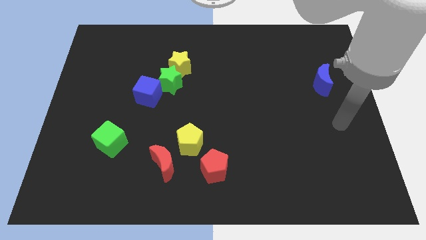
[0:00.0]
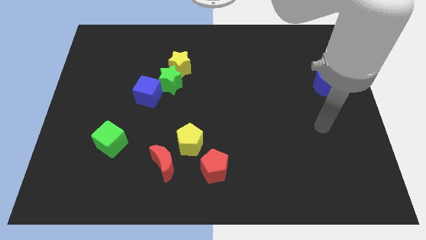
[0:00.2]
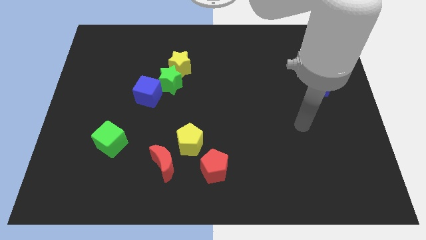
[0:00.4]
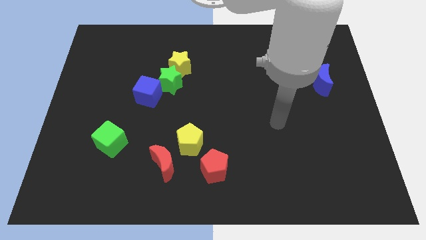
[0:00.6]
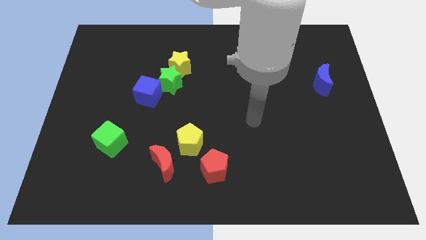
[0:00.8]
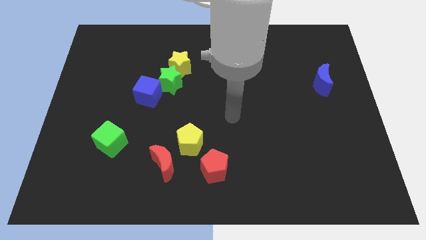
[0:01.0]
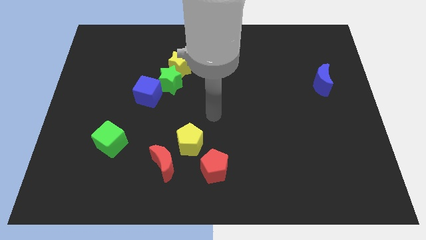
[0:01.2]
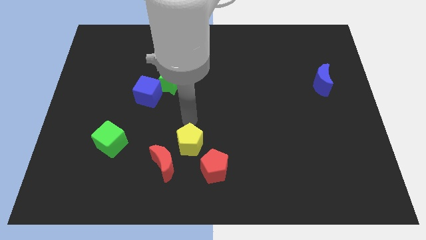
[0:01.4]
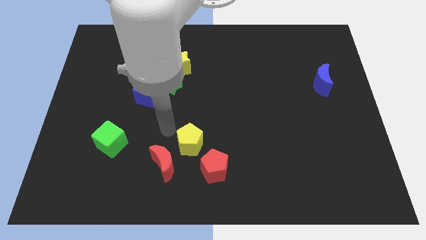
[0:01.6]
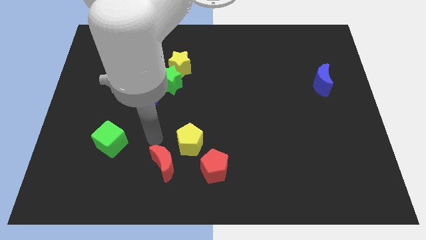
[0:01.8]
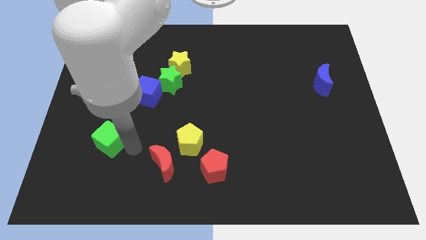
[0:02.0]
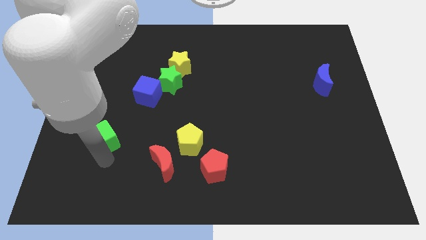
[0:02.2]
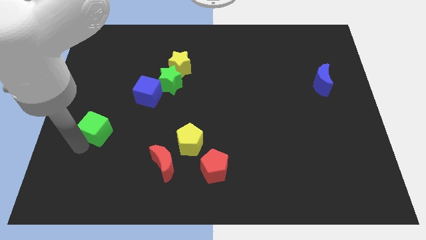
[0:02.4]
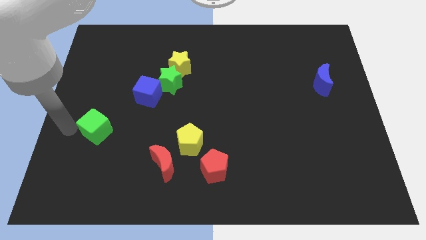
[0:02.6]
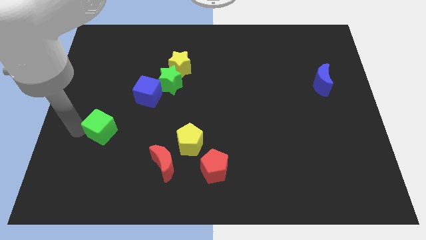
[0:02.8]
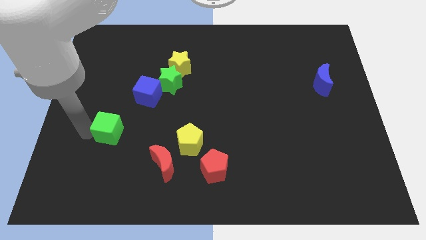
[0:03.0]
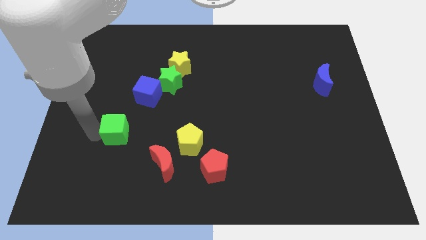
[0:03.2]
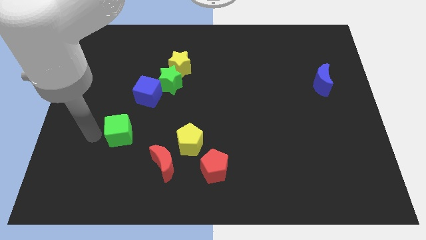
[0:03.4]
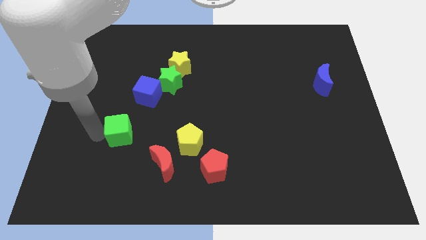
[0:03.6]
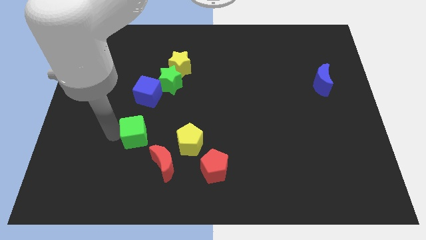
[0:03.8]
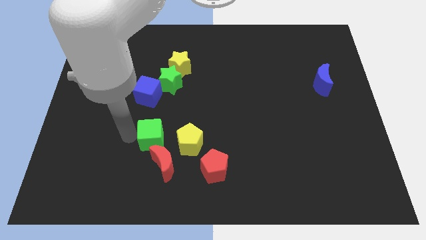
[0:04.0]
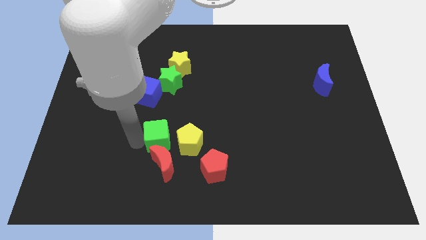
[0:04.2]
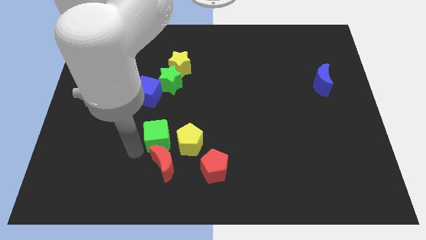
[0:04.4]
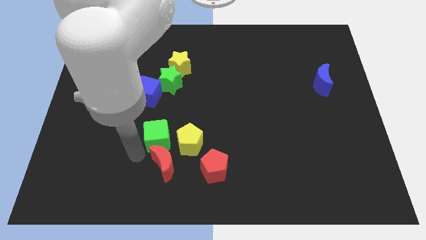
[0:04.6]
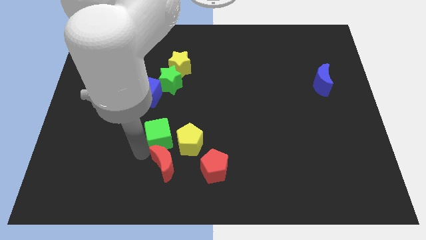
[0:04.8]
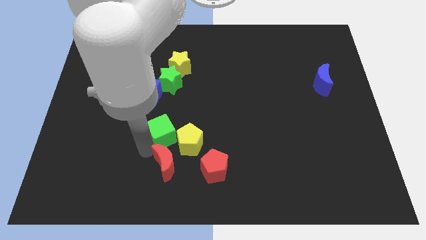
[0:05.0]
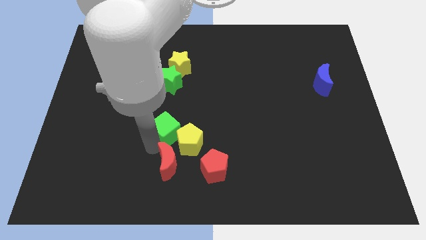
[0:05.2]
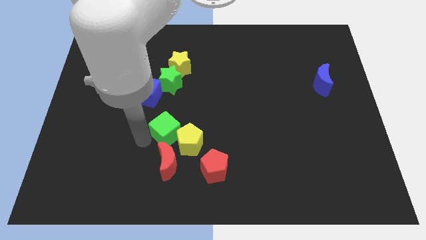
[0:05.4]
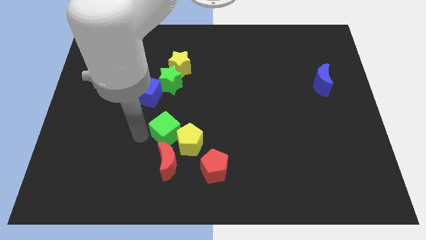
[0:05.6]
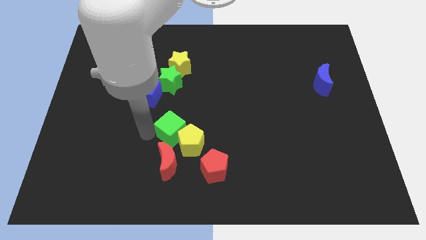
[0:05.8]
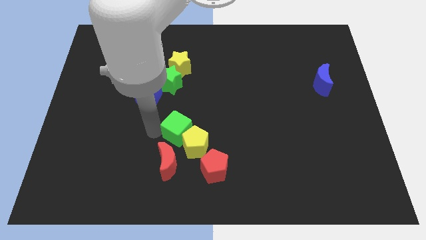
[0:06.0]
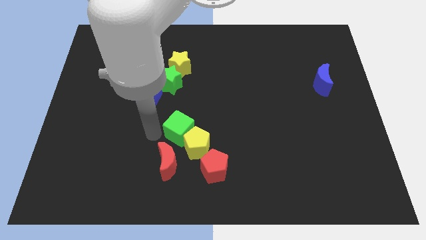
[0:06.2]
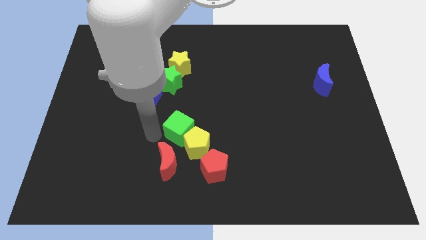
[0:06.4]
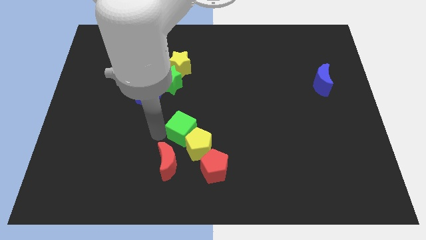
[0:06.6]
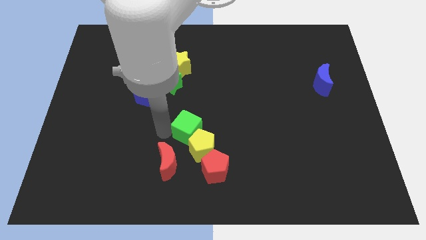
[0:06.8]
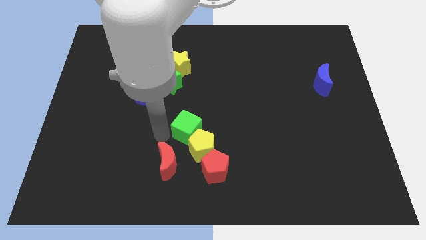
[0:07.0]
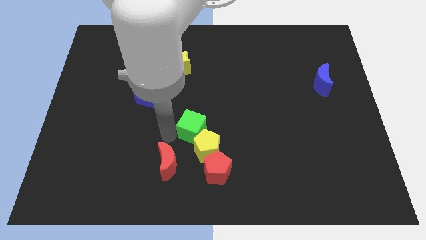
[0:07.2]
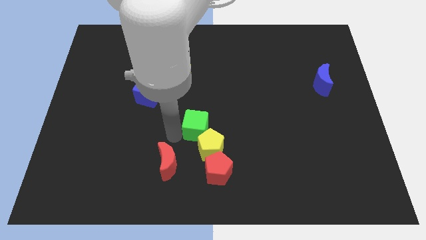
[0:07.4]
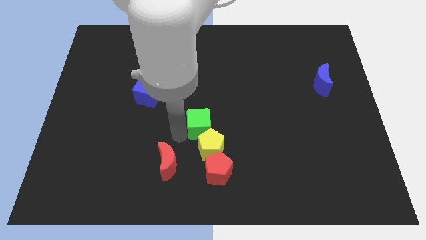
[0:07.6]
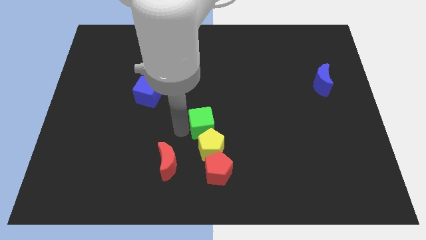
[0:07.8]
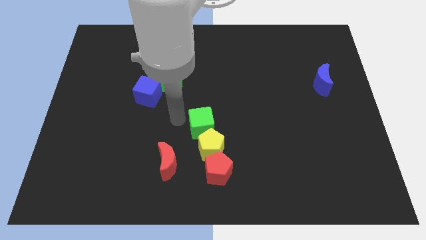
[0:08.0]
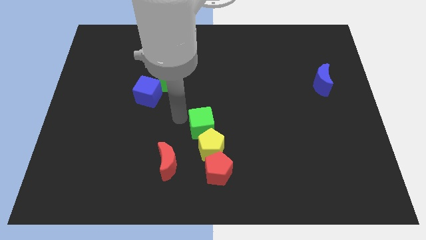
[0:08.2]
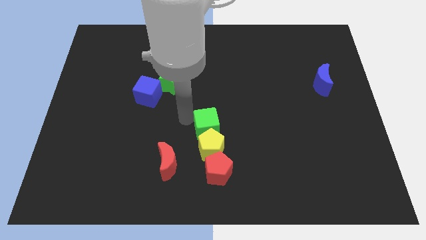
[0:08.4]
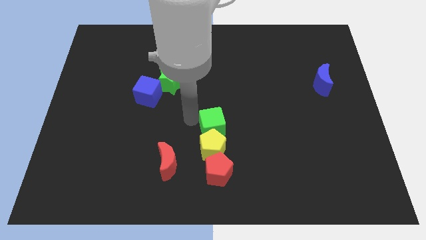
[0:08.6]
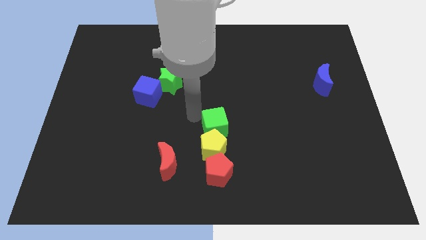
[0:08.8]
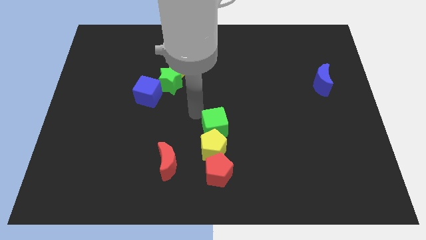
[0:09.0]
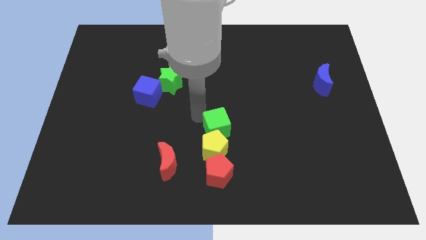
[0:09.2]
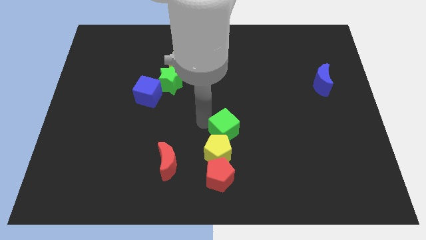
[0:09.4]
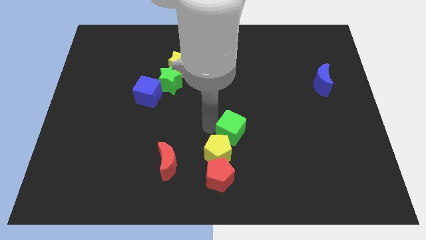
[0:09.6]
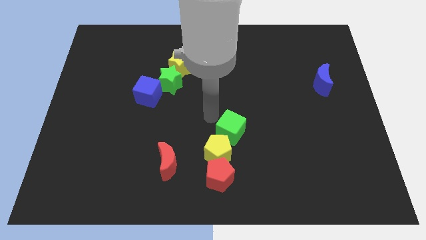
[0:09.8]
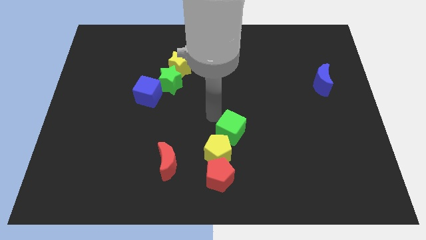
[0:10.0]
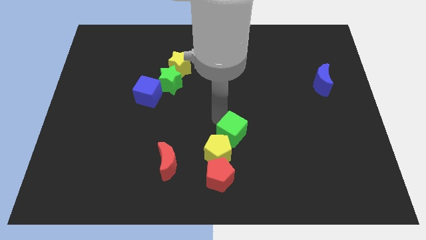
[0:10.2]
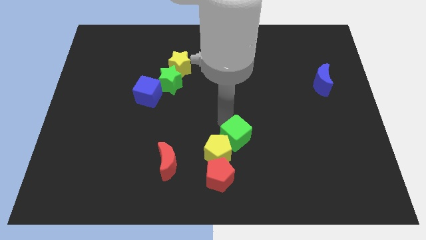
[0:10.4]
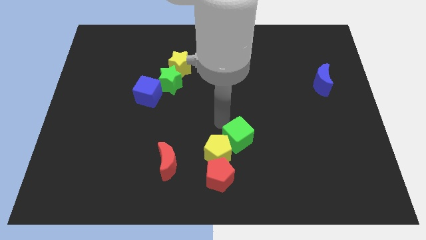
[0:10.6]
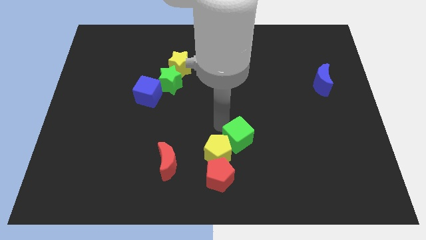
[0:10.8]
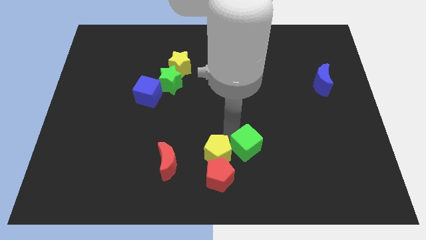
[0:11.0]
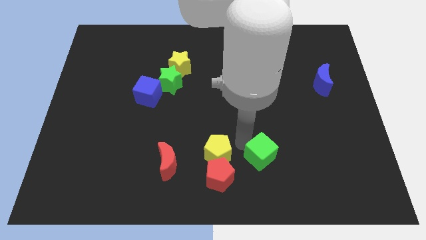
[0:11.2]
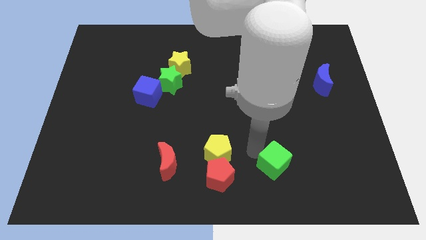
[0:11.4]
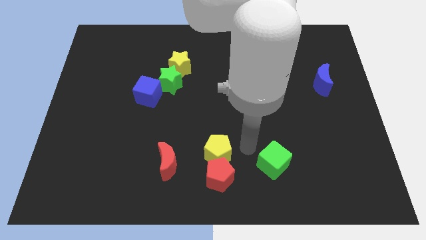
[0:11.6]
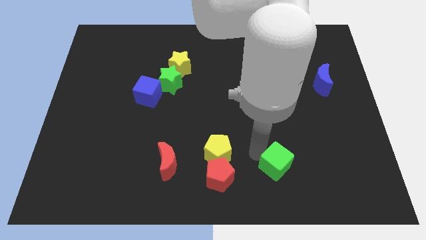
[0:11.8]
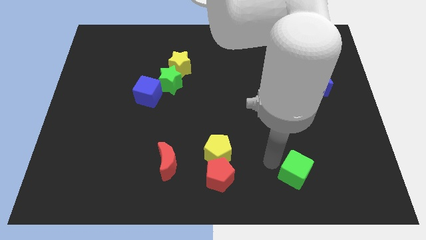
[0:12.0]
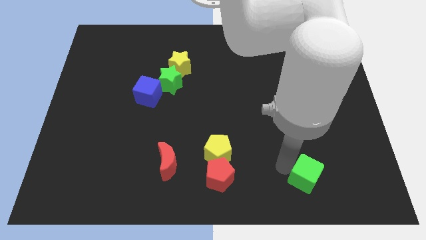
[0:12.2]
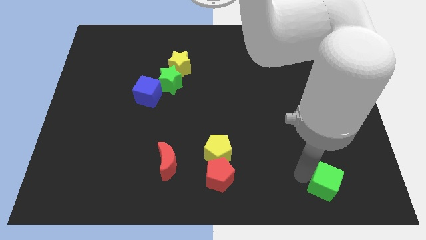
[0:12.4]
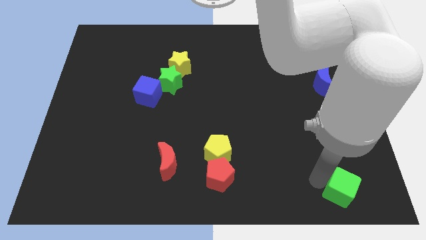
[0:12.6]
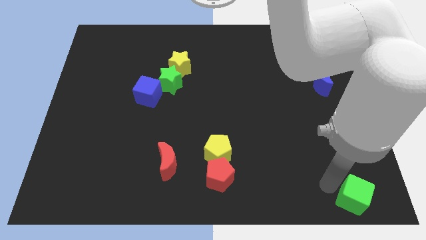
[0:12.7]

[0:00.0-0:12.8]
push the green cube to the lower right corner
